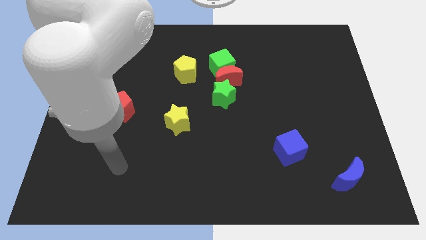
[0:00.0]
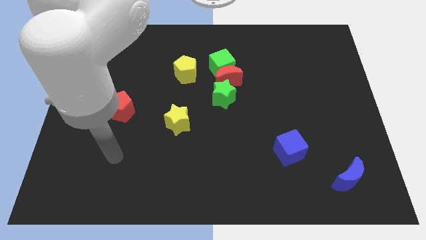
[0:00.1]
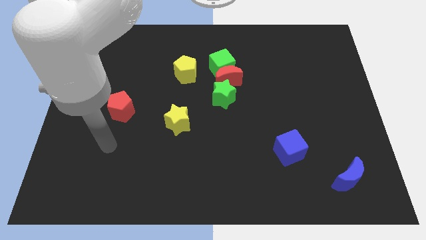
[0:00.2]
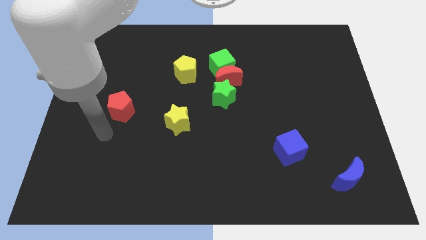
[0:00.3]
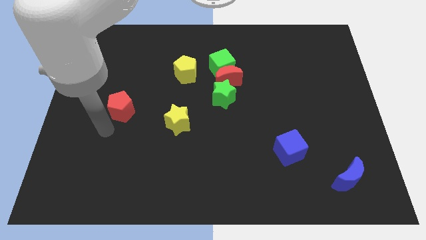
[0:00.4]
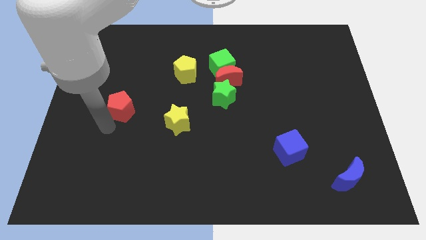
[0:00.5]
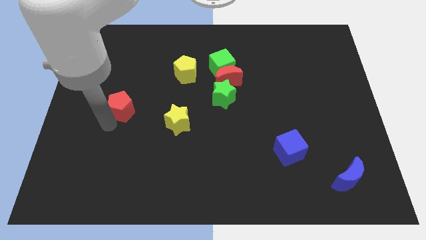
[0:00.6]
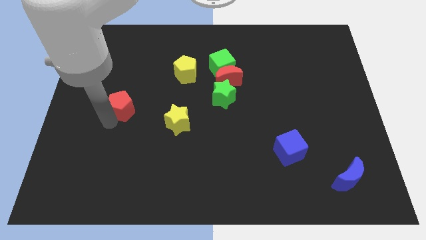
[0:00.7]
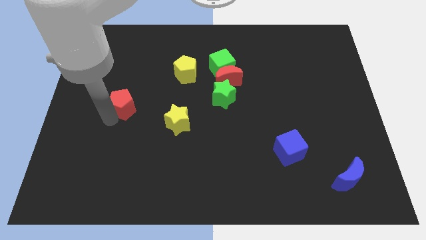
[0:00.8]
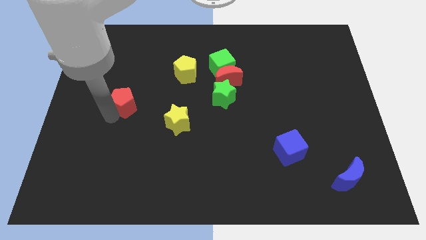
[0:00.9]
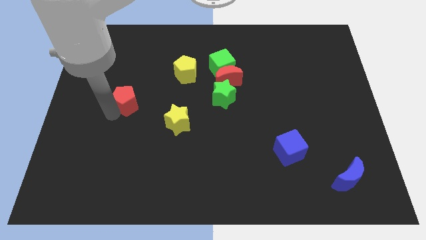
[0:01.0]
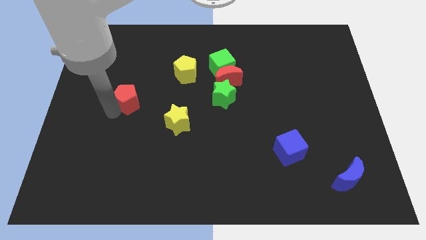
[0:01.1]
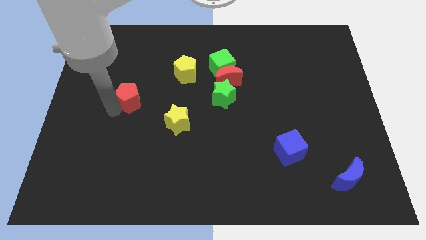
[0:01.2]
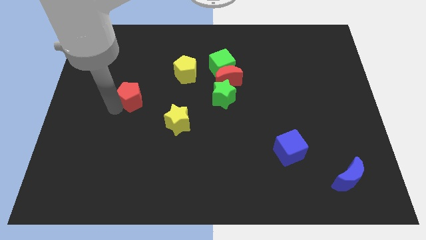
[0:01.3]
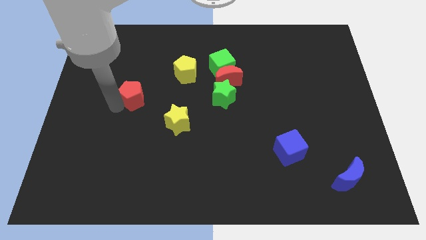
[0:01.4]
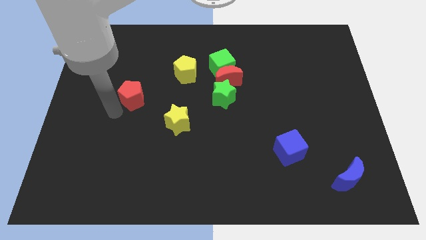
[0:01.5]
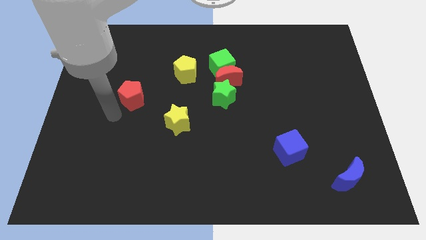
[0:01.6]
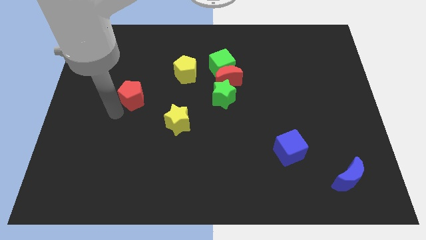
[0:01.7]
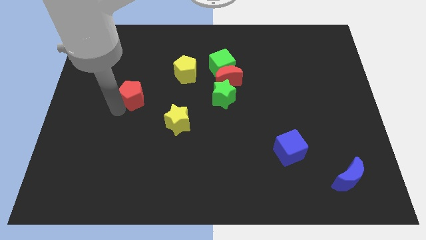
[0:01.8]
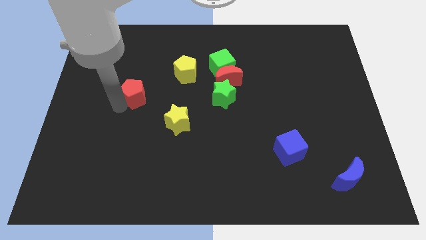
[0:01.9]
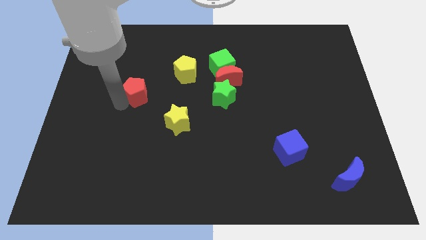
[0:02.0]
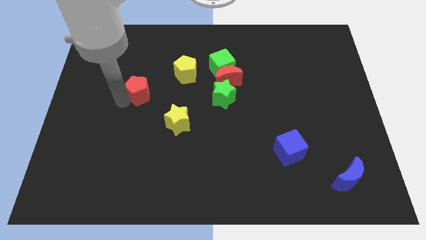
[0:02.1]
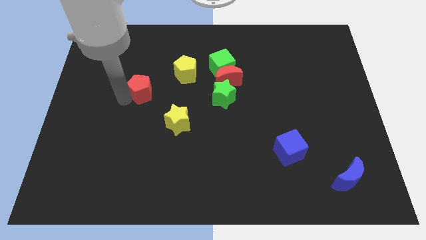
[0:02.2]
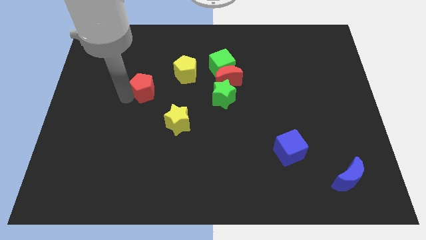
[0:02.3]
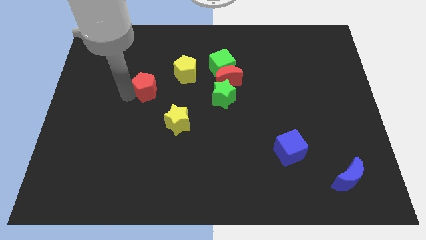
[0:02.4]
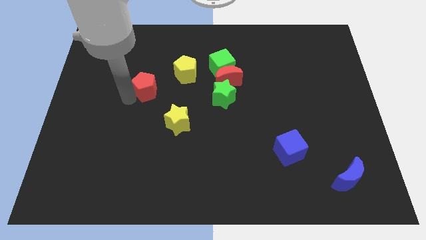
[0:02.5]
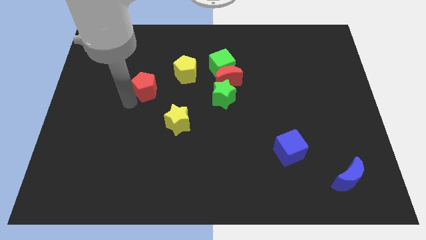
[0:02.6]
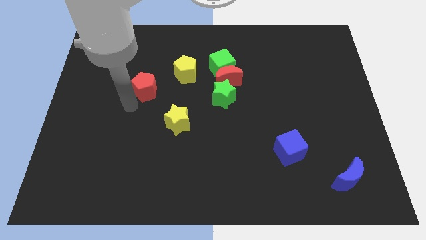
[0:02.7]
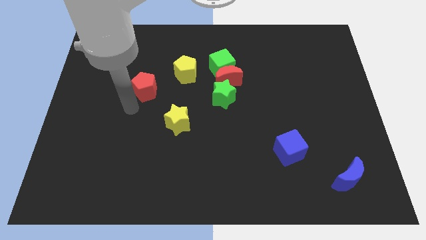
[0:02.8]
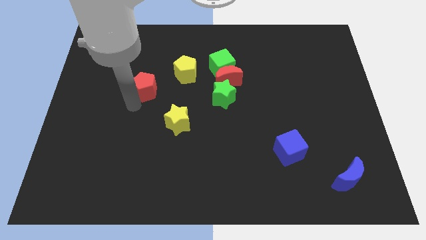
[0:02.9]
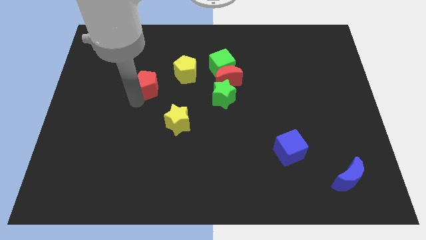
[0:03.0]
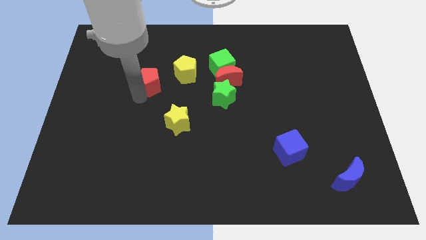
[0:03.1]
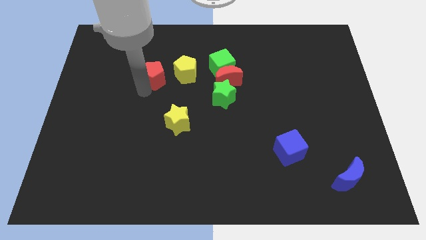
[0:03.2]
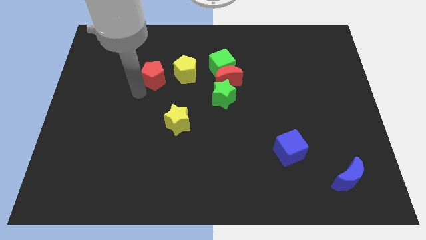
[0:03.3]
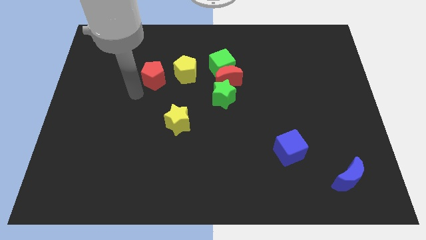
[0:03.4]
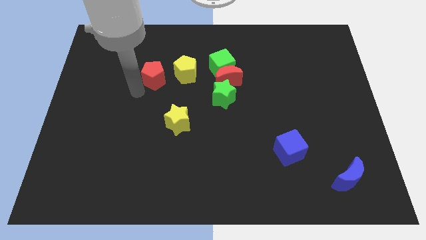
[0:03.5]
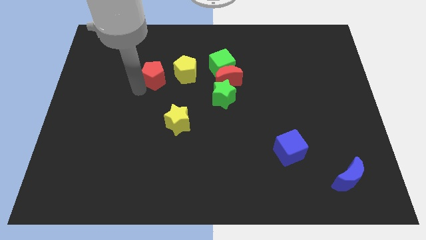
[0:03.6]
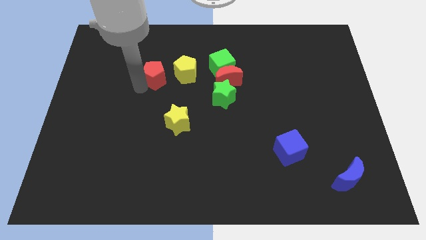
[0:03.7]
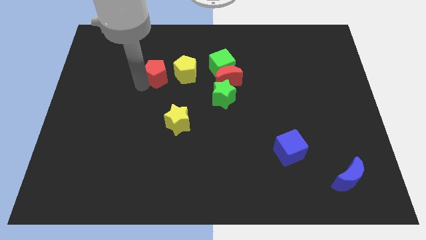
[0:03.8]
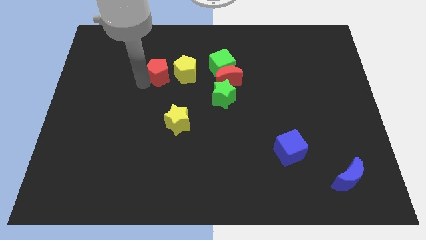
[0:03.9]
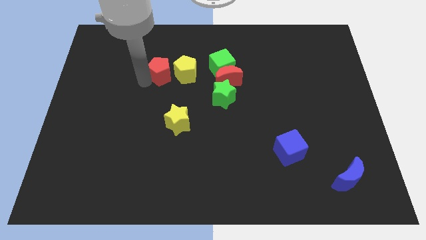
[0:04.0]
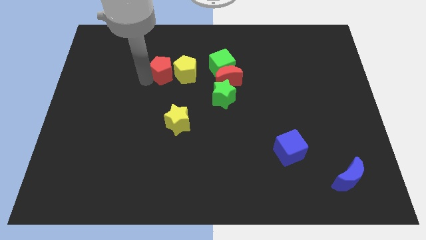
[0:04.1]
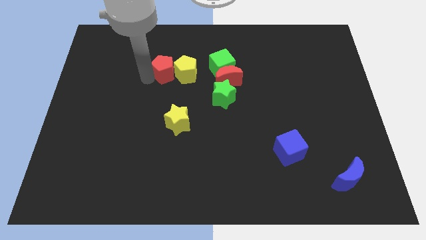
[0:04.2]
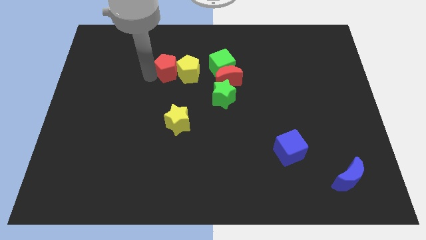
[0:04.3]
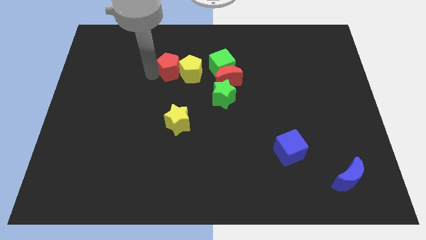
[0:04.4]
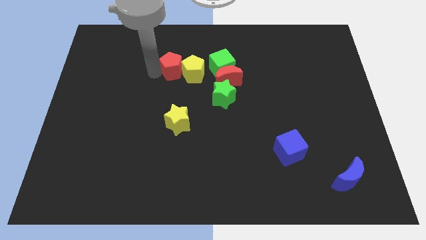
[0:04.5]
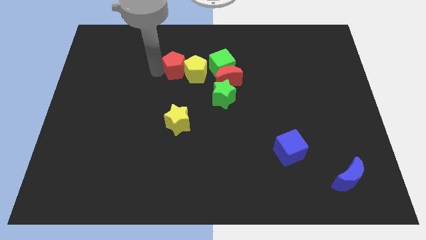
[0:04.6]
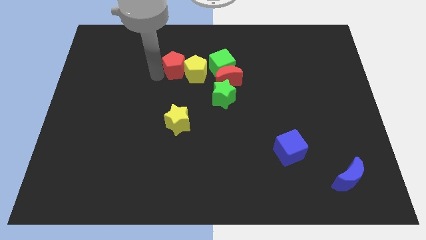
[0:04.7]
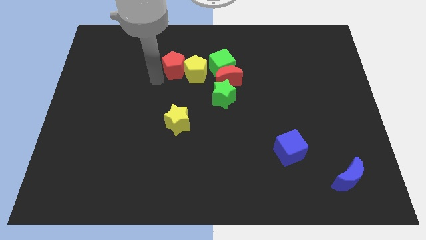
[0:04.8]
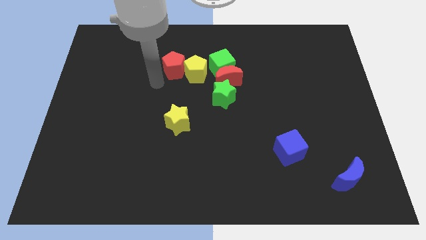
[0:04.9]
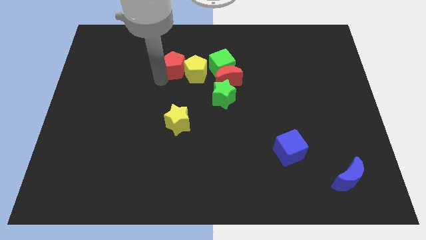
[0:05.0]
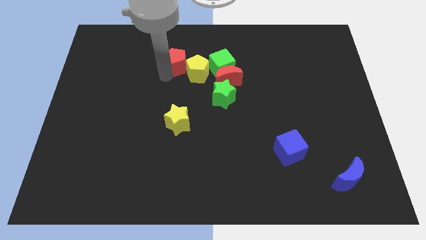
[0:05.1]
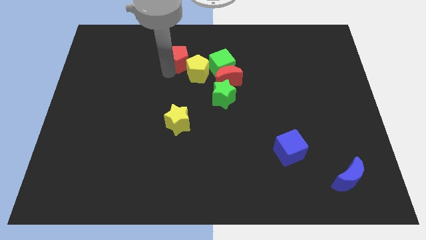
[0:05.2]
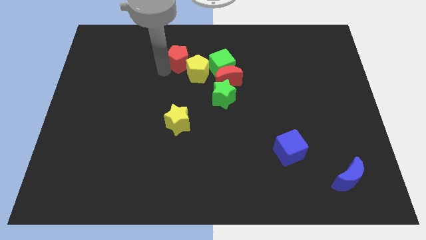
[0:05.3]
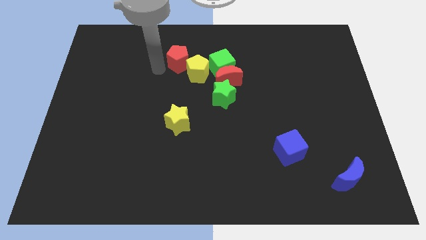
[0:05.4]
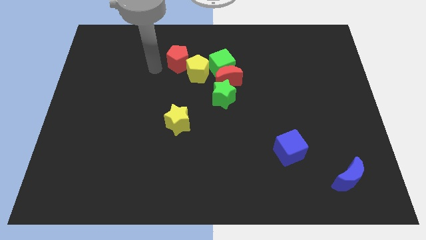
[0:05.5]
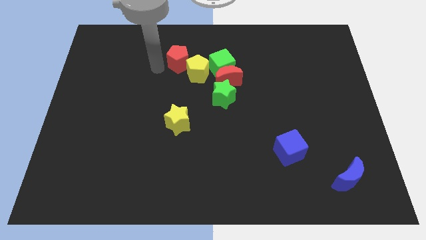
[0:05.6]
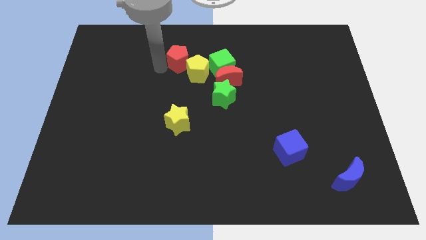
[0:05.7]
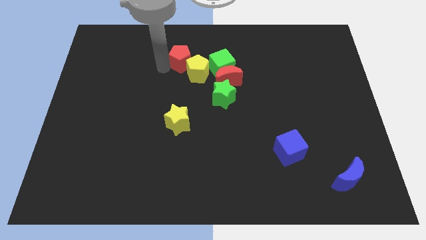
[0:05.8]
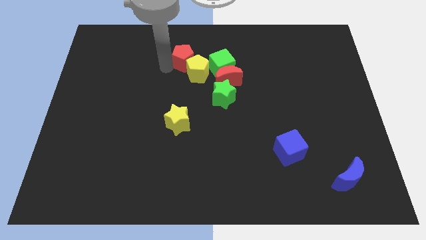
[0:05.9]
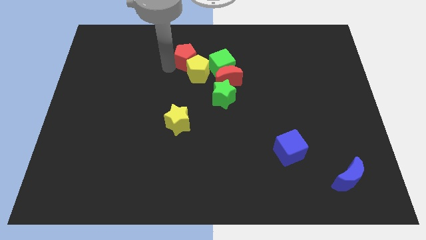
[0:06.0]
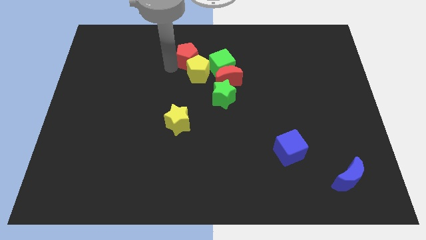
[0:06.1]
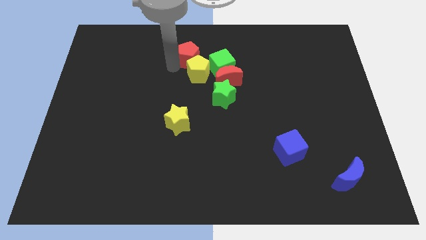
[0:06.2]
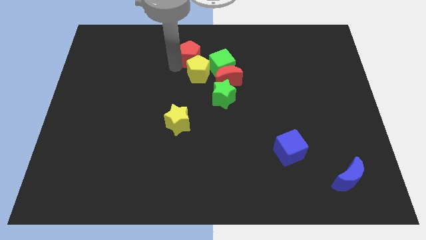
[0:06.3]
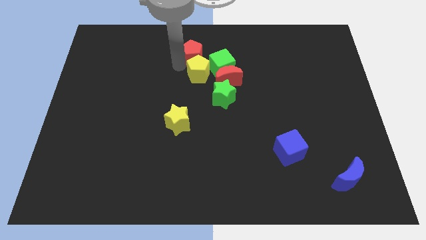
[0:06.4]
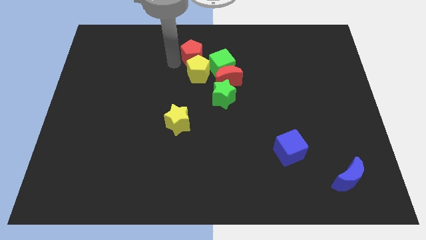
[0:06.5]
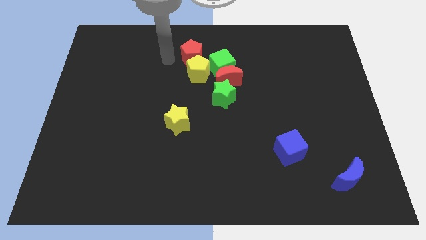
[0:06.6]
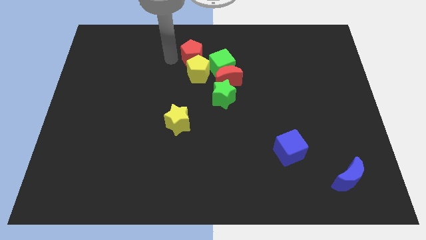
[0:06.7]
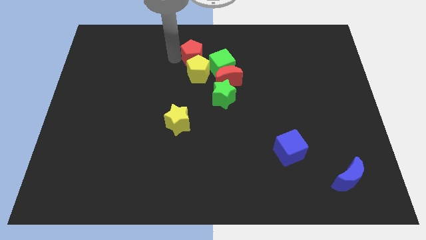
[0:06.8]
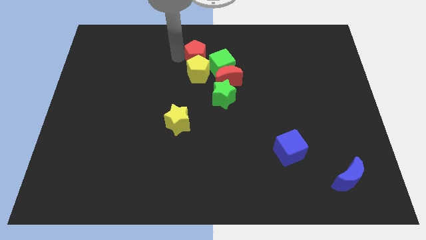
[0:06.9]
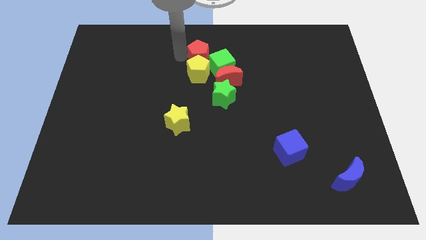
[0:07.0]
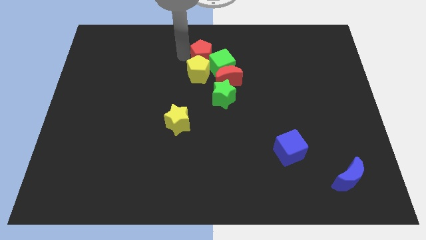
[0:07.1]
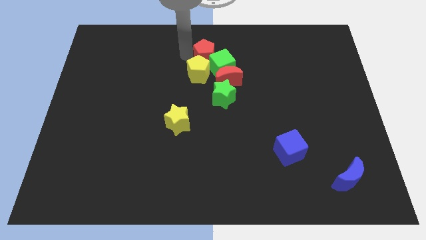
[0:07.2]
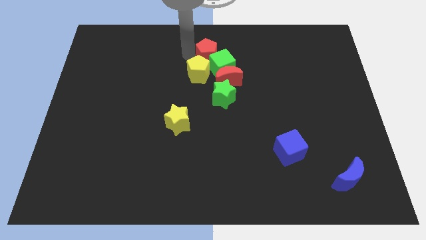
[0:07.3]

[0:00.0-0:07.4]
slide the red pentagon above the green star
